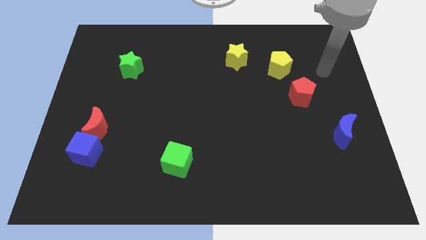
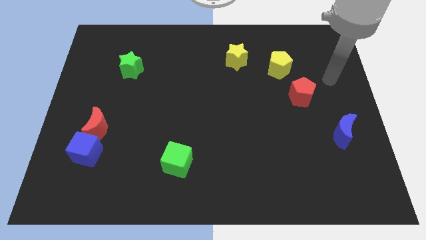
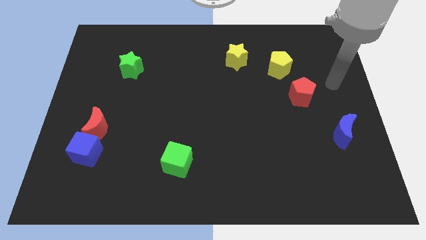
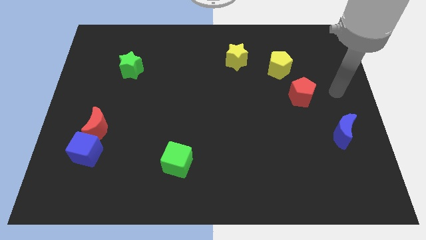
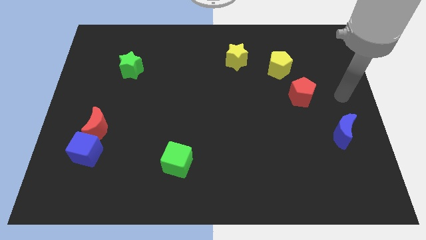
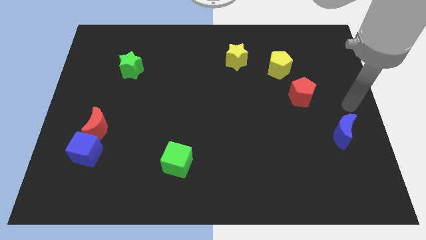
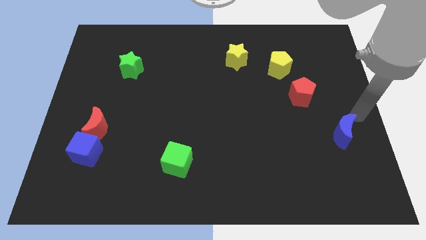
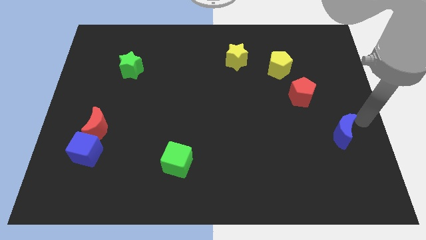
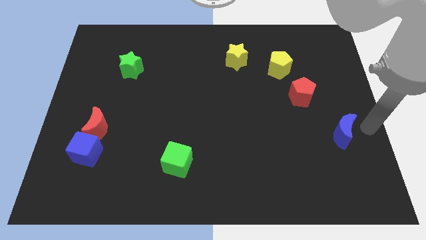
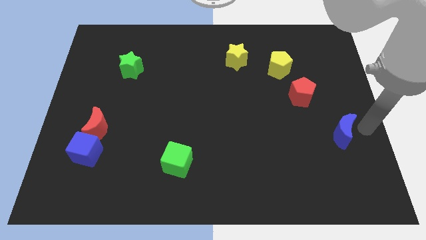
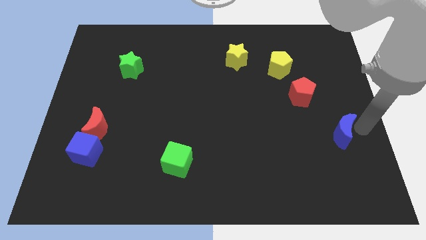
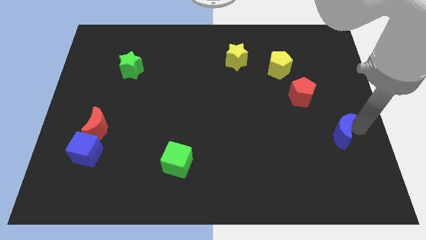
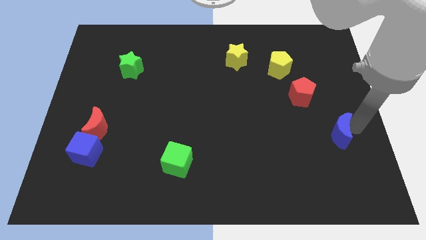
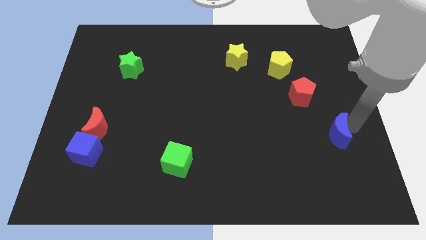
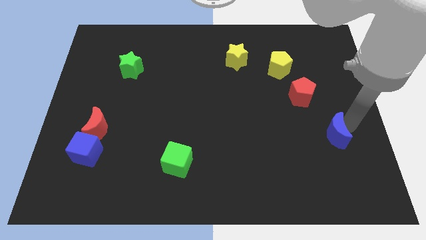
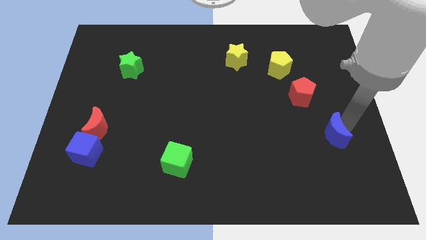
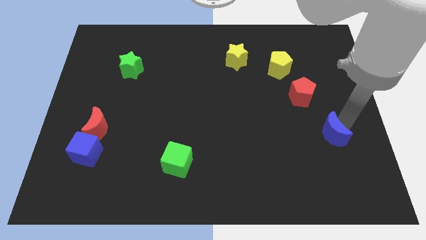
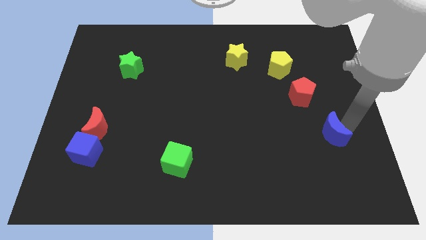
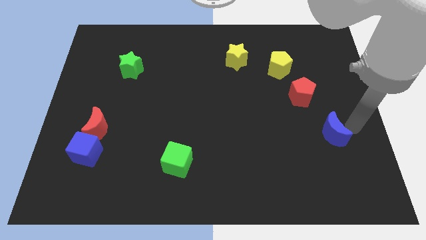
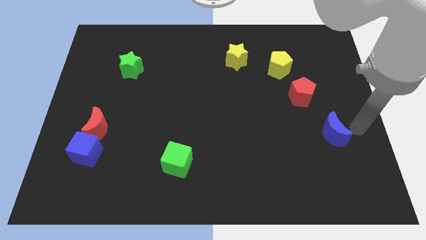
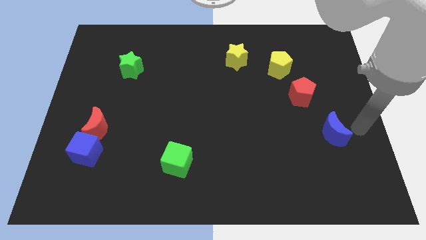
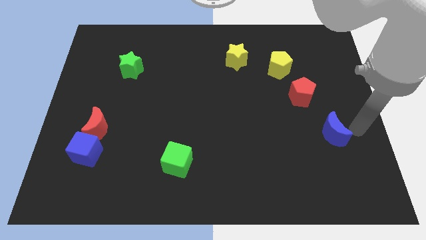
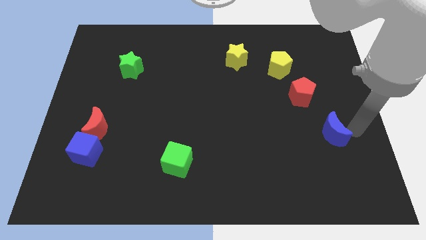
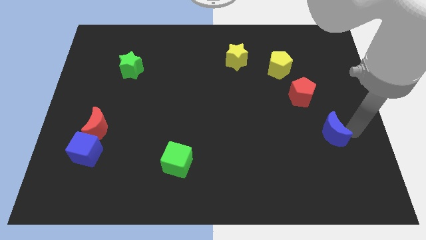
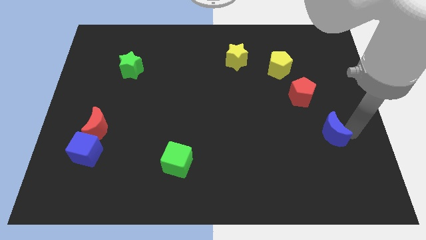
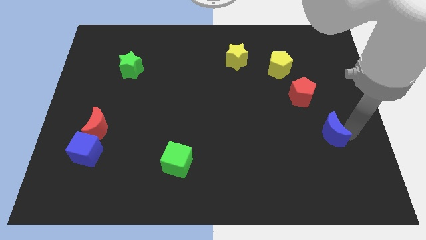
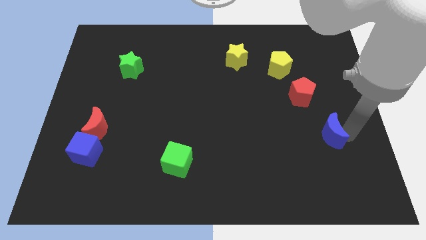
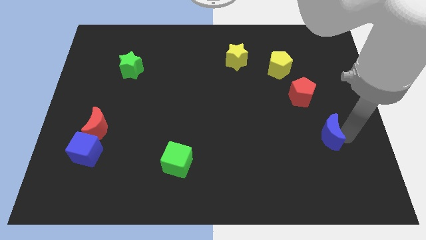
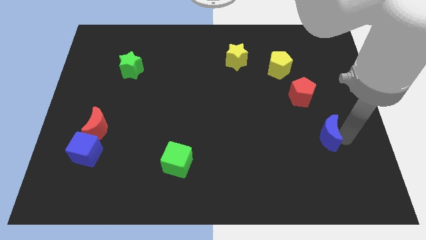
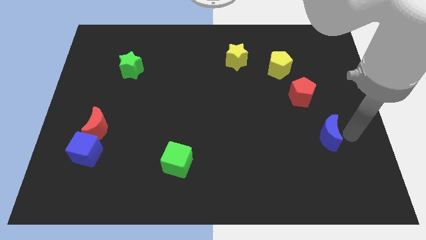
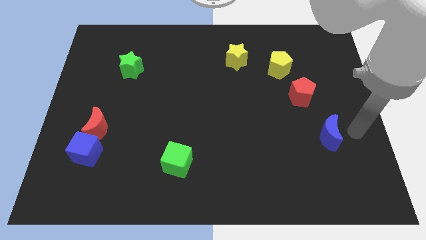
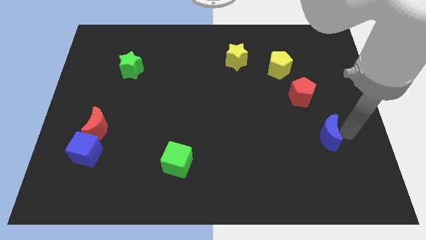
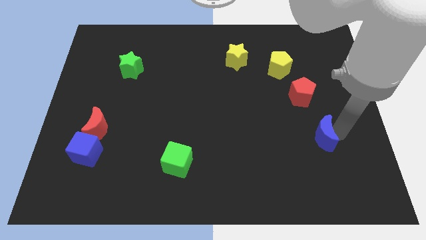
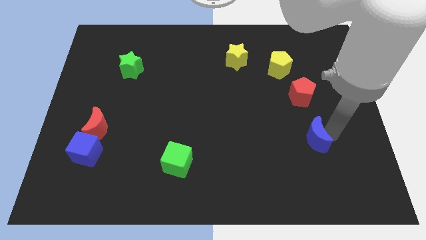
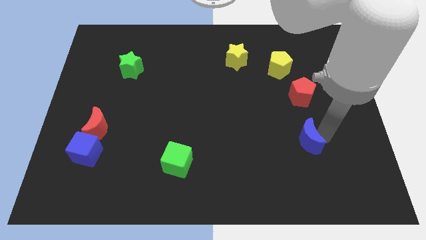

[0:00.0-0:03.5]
slightly push the blue moon left

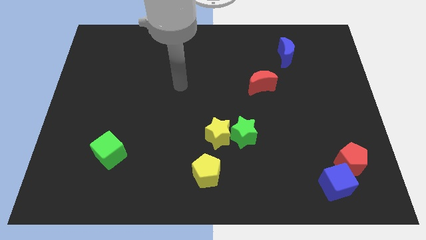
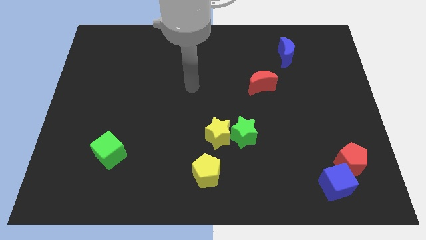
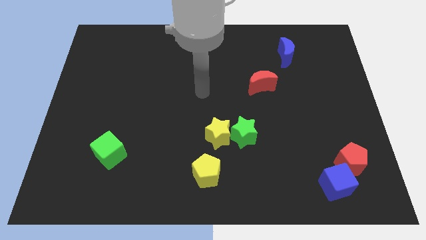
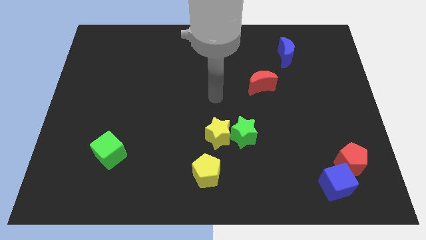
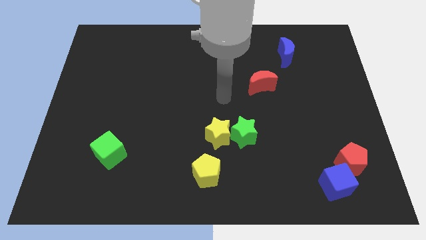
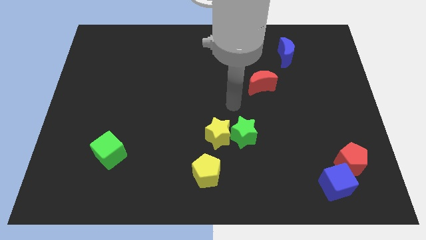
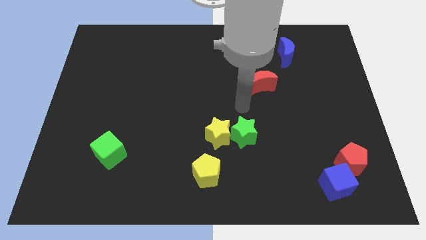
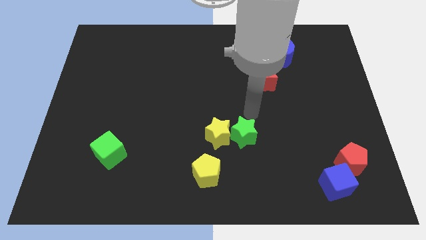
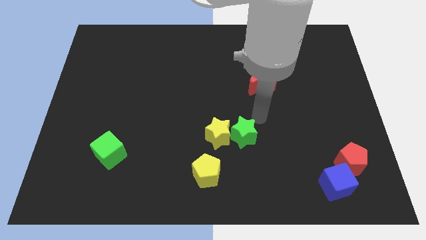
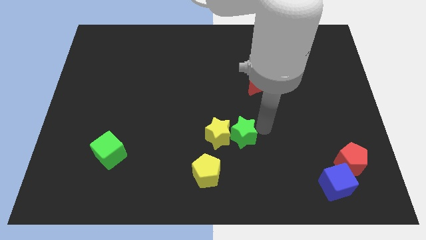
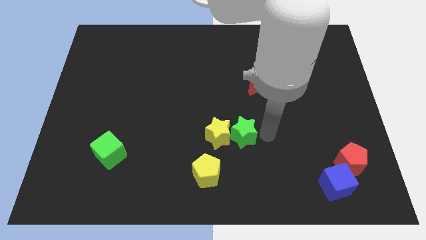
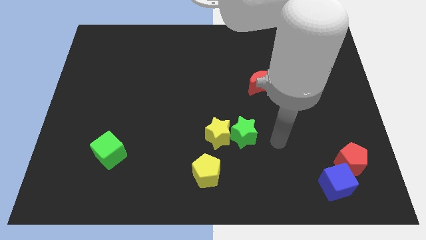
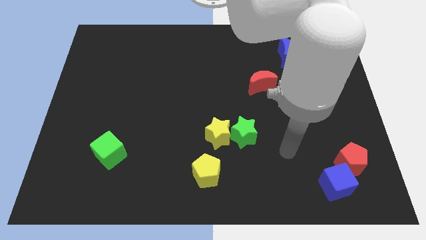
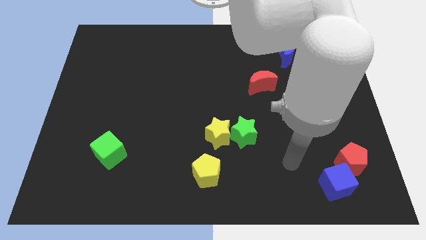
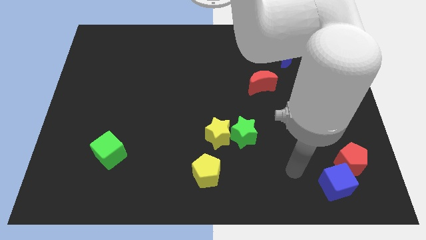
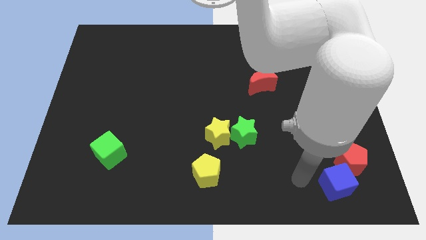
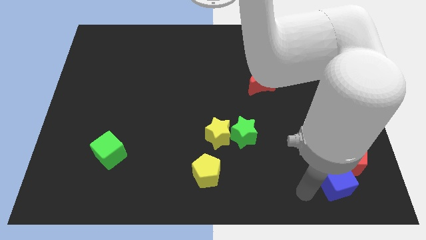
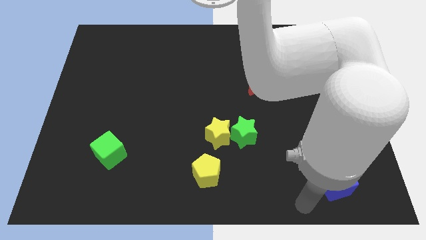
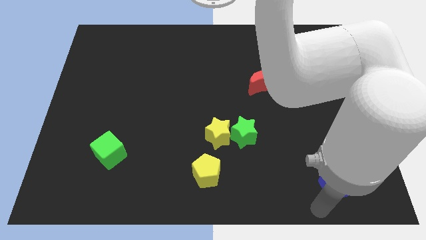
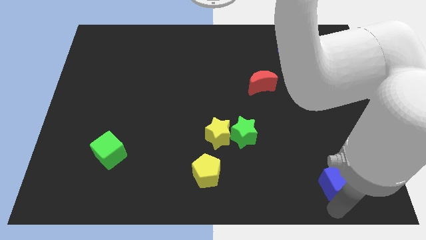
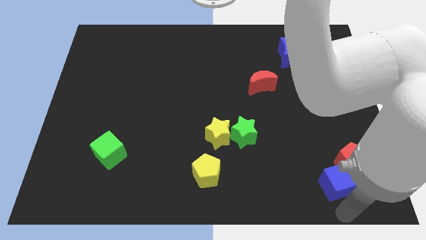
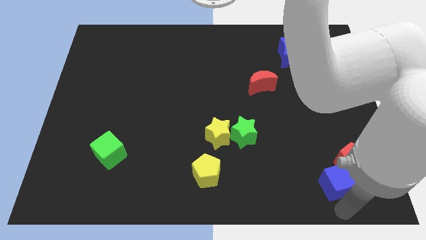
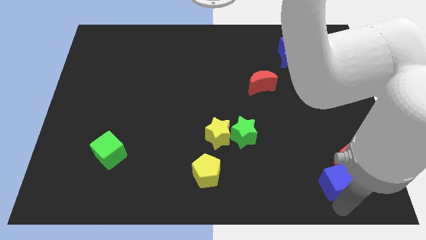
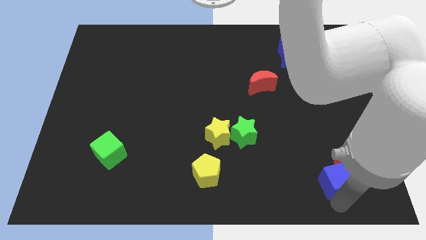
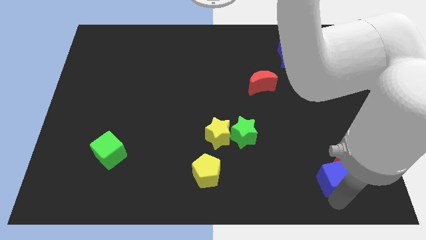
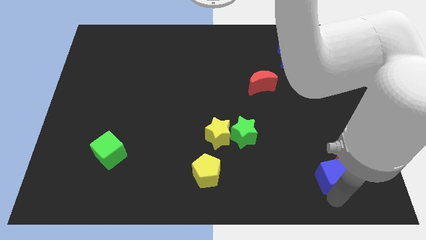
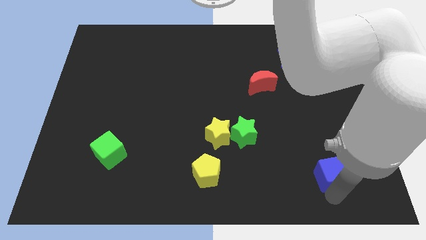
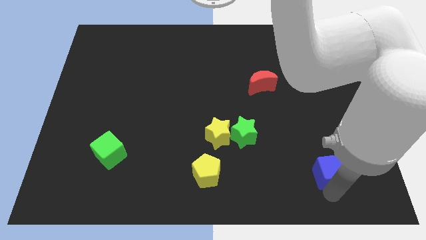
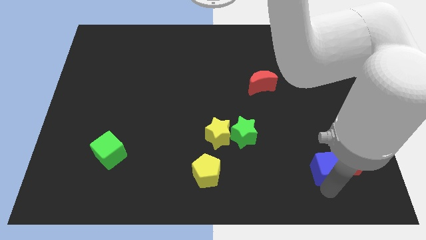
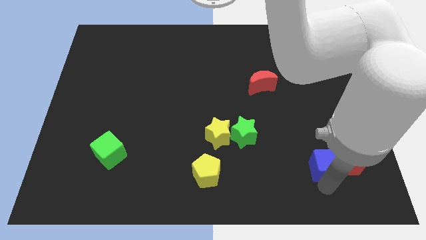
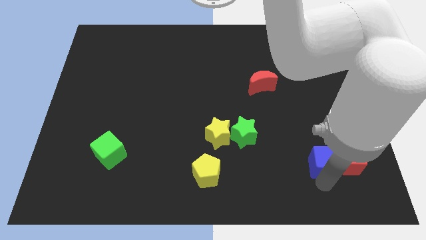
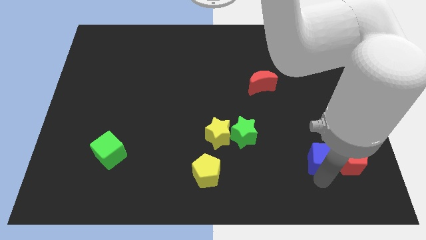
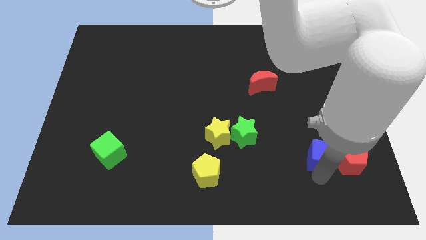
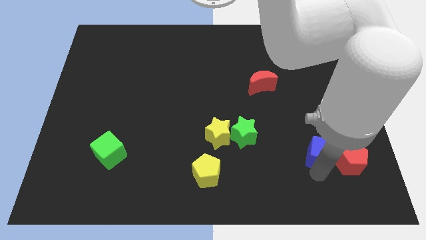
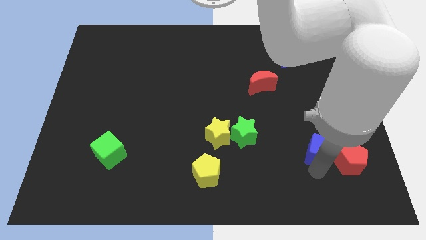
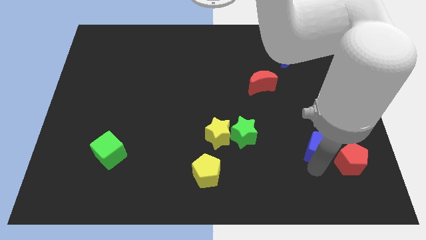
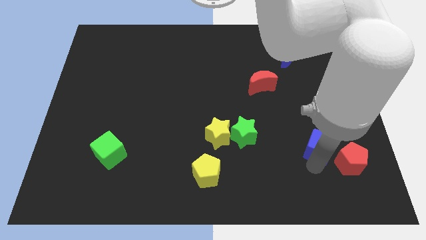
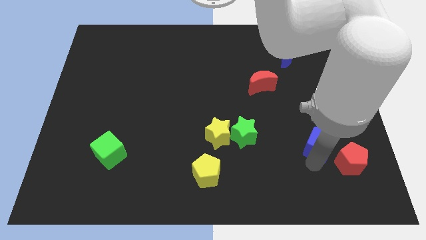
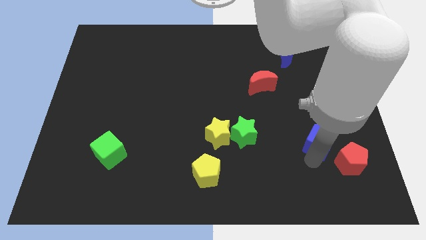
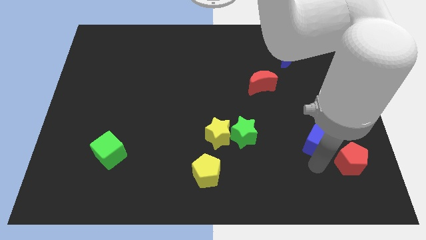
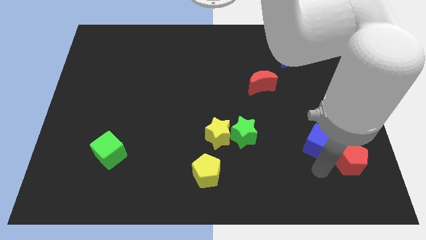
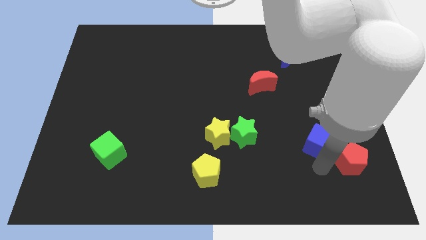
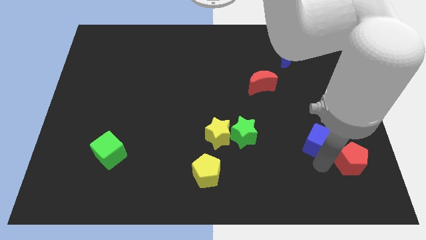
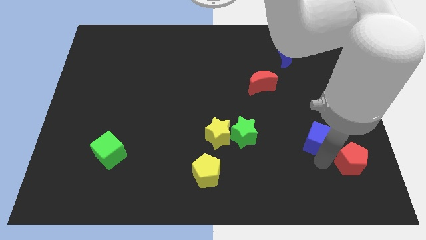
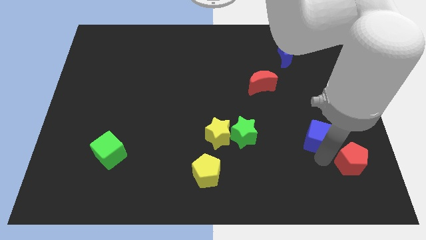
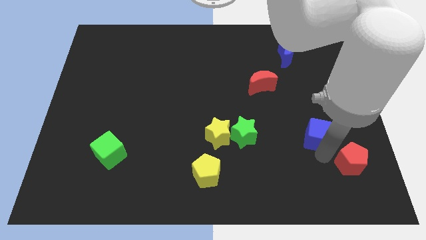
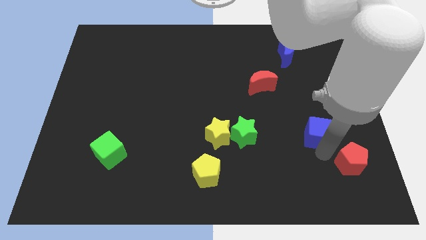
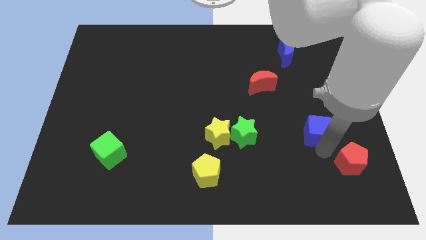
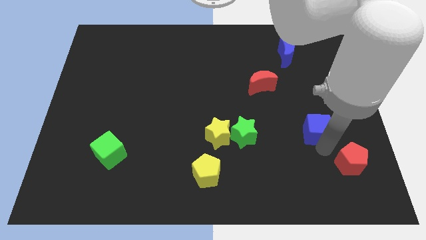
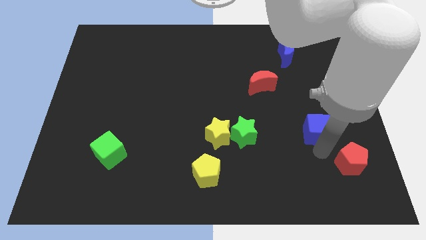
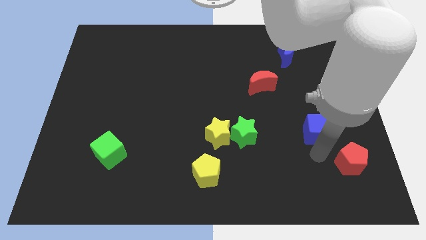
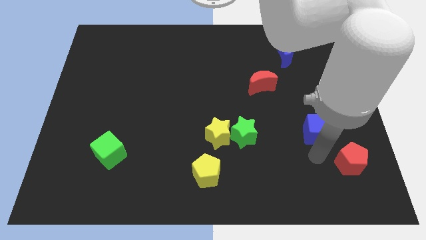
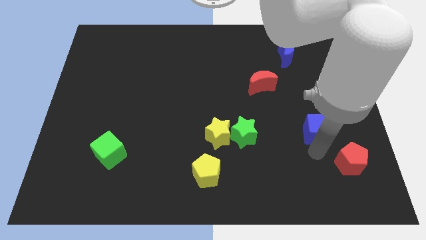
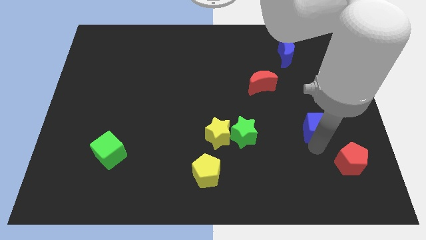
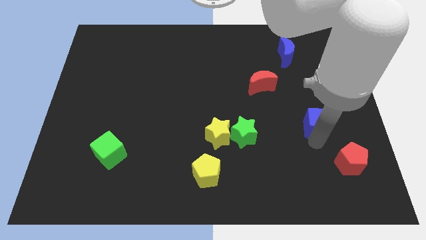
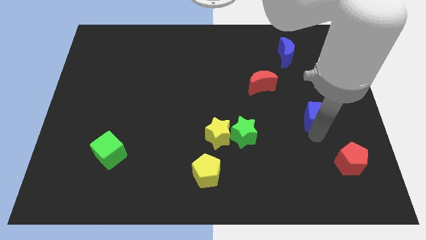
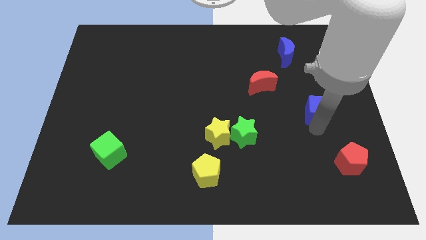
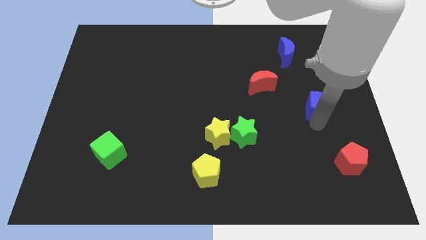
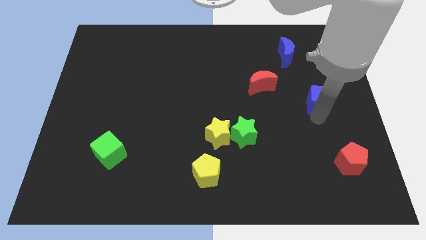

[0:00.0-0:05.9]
move the blue cube up
